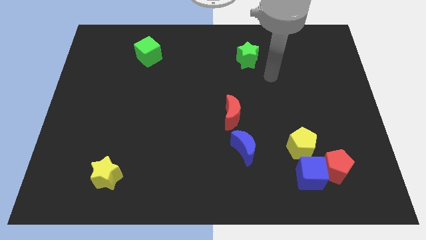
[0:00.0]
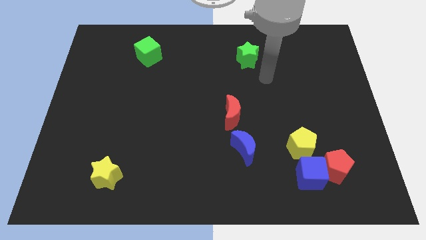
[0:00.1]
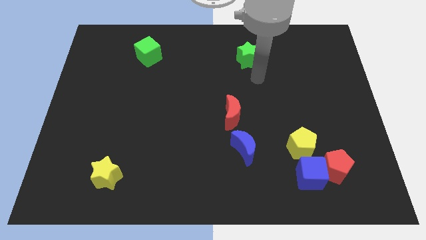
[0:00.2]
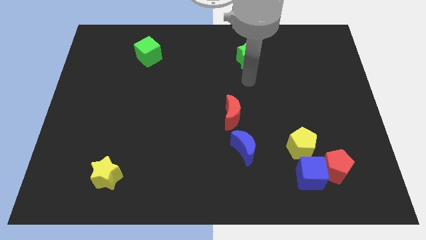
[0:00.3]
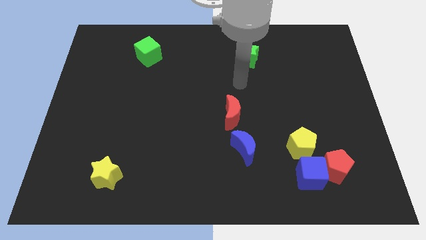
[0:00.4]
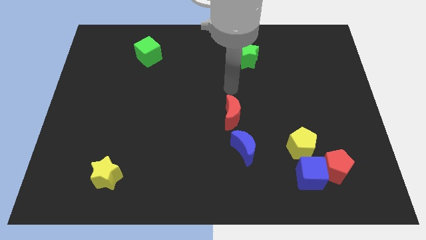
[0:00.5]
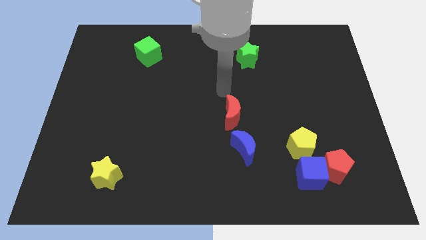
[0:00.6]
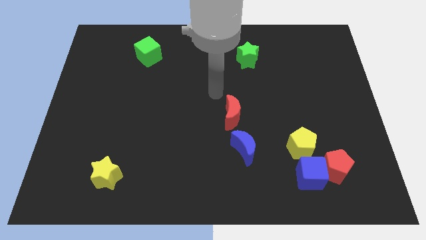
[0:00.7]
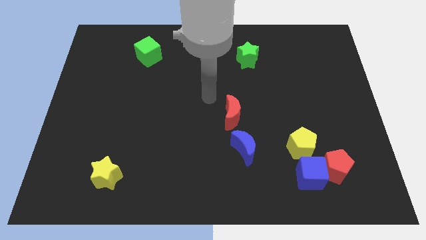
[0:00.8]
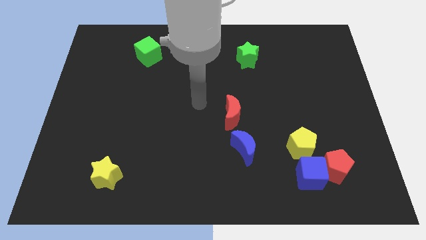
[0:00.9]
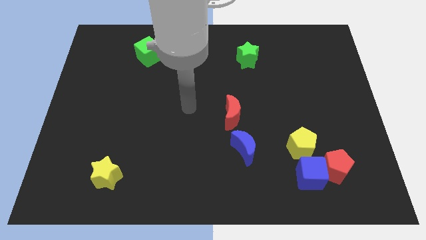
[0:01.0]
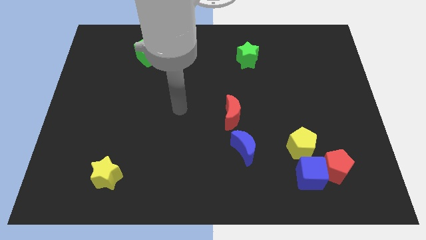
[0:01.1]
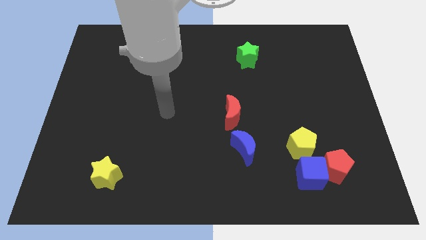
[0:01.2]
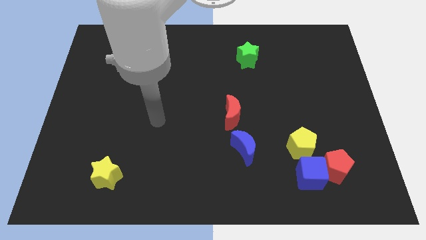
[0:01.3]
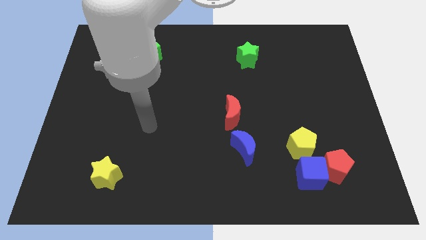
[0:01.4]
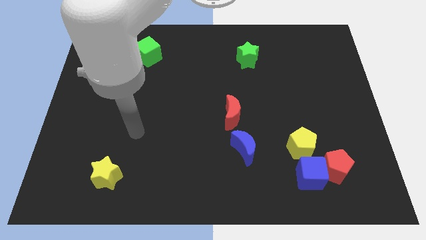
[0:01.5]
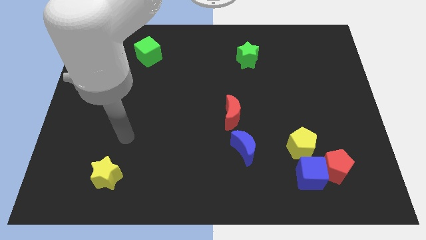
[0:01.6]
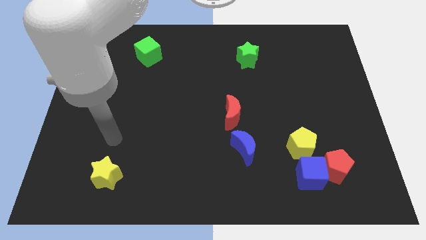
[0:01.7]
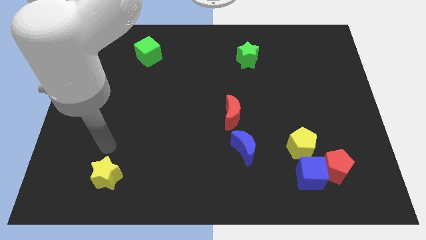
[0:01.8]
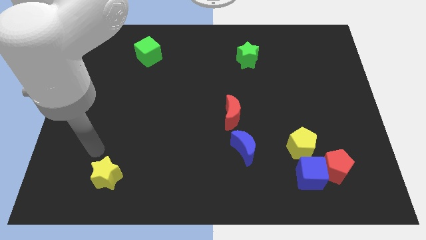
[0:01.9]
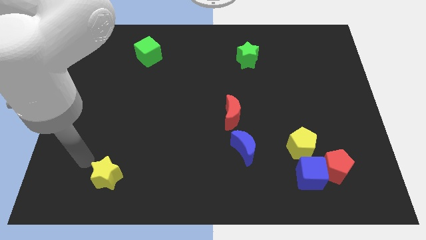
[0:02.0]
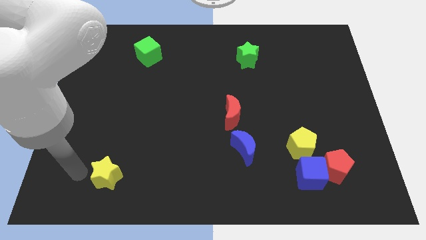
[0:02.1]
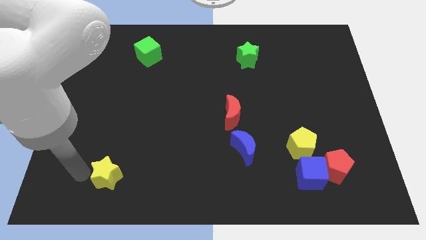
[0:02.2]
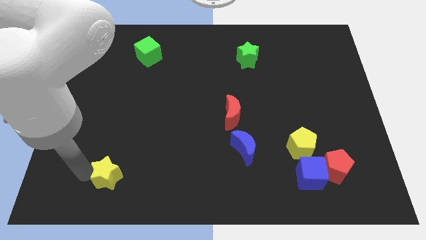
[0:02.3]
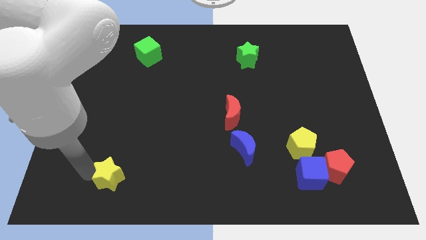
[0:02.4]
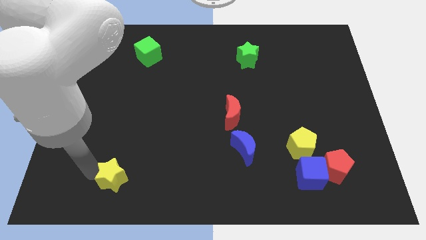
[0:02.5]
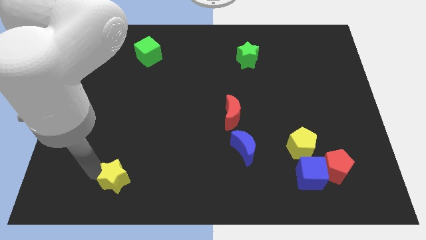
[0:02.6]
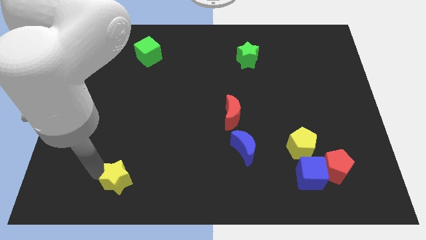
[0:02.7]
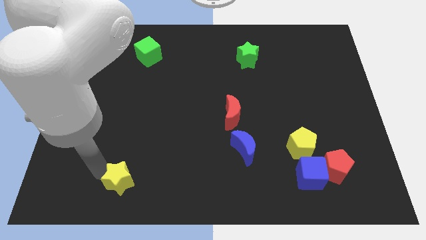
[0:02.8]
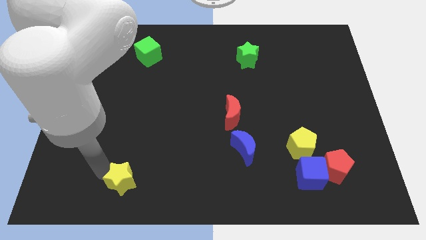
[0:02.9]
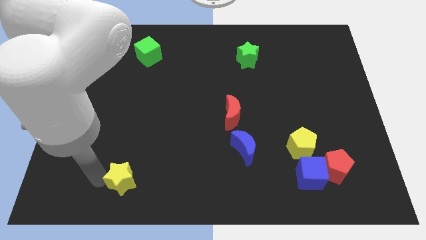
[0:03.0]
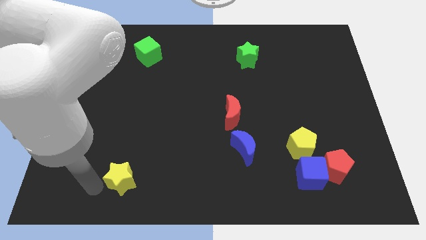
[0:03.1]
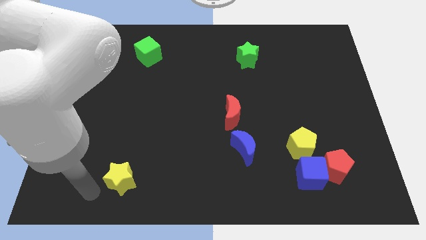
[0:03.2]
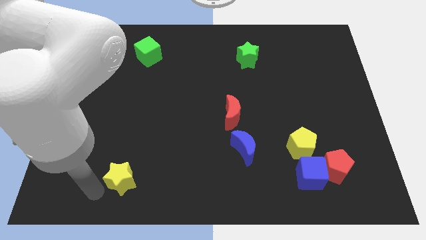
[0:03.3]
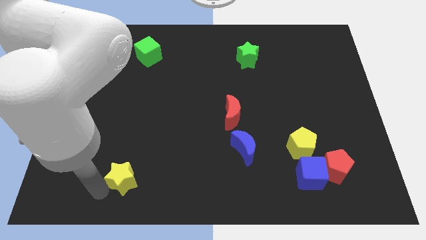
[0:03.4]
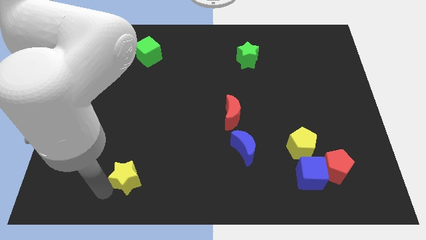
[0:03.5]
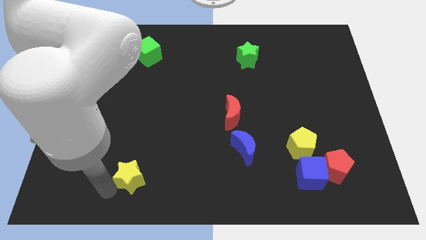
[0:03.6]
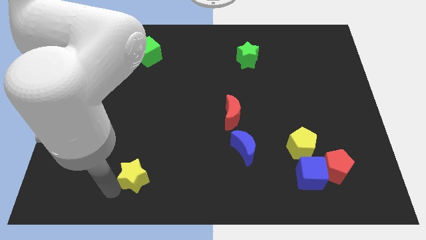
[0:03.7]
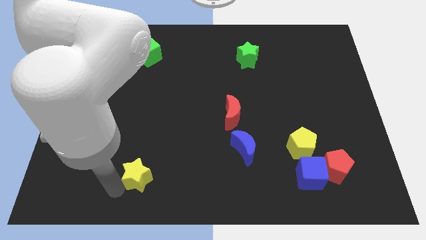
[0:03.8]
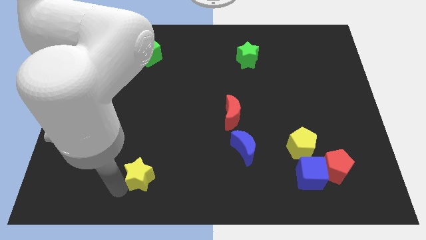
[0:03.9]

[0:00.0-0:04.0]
slightly push the yellow star right

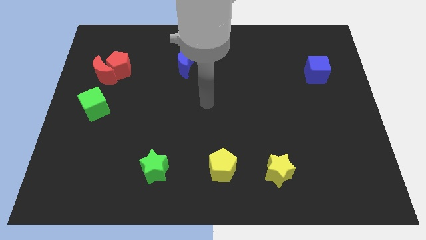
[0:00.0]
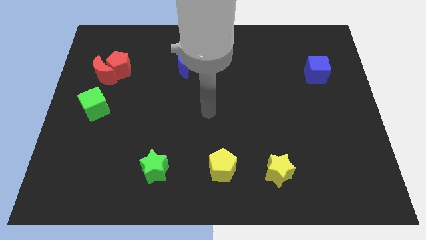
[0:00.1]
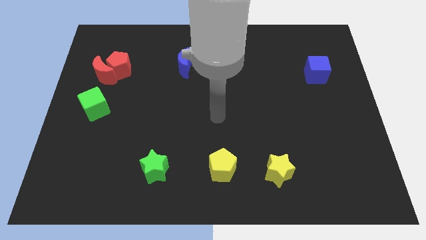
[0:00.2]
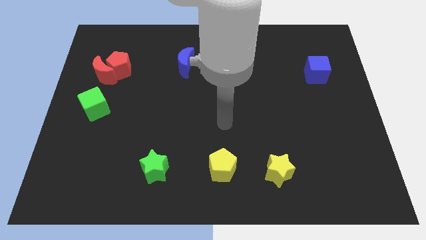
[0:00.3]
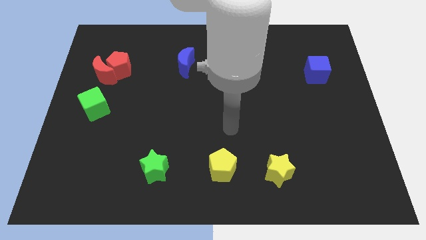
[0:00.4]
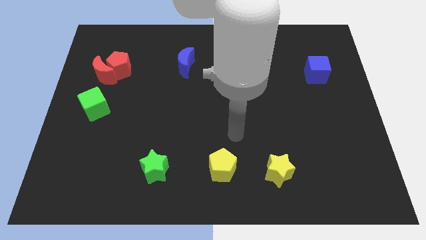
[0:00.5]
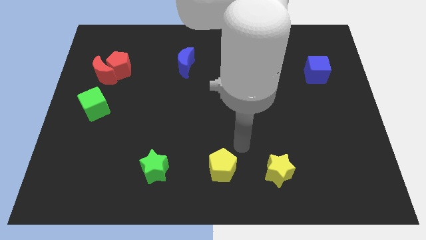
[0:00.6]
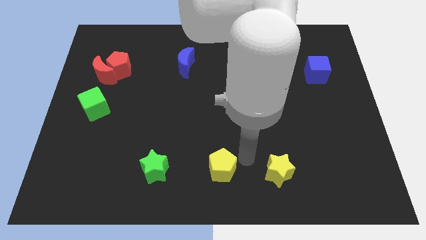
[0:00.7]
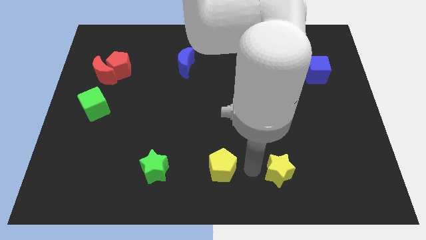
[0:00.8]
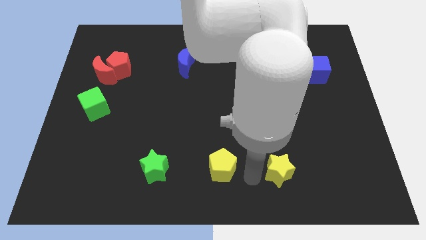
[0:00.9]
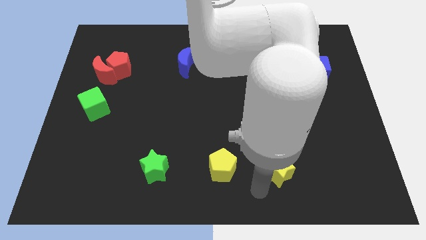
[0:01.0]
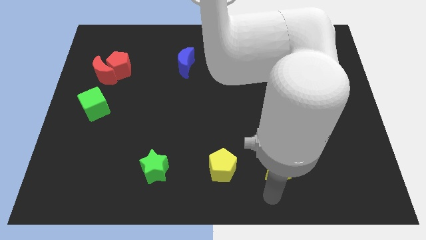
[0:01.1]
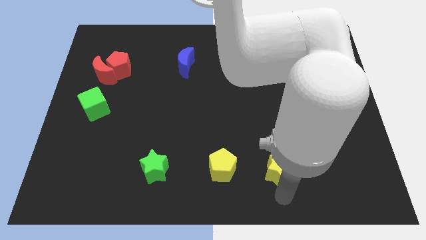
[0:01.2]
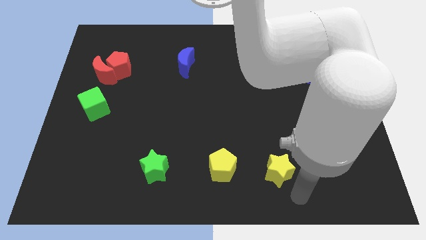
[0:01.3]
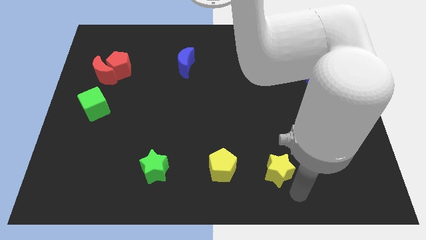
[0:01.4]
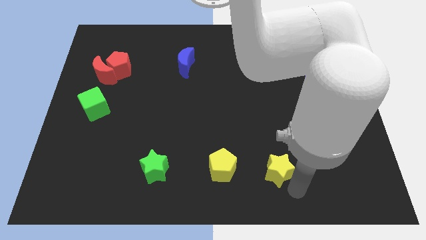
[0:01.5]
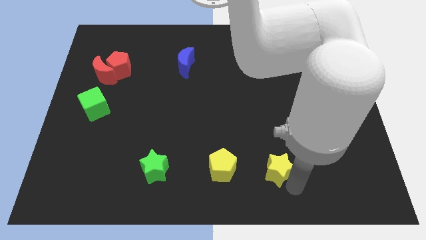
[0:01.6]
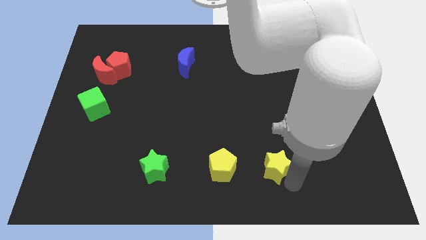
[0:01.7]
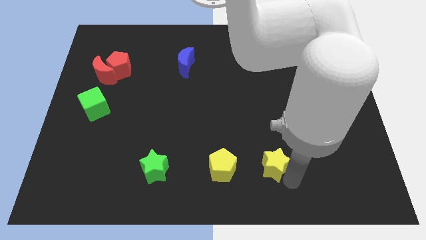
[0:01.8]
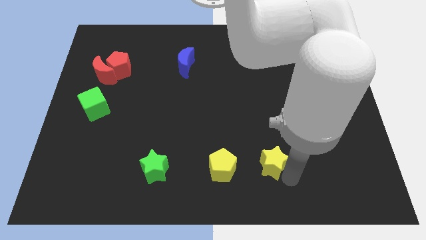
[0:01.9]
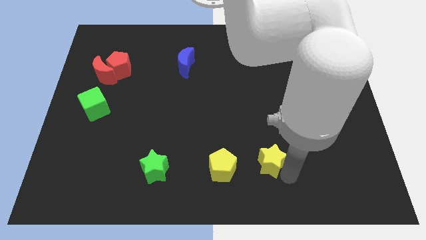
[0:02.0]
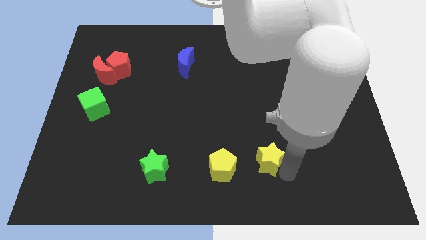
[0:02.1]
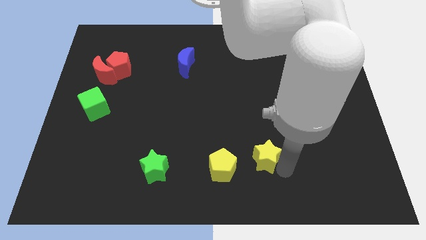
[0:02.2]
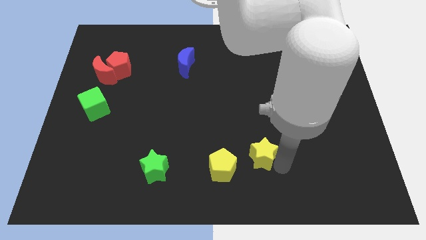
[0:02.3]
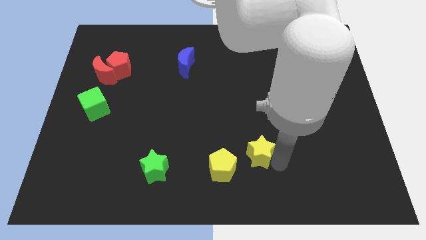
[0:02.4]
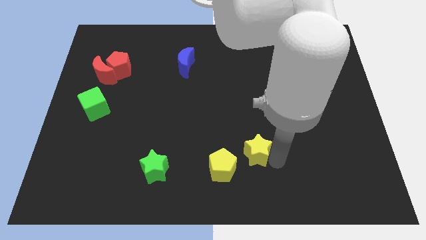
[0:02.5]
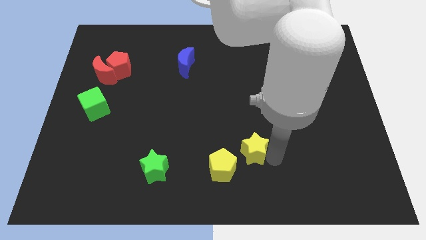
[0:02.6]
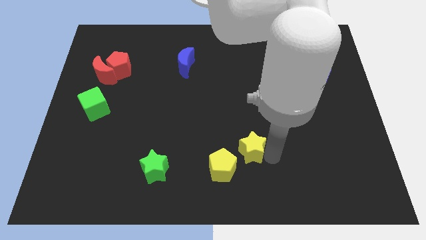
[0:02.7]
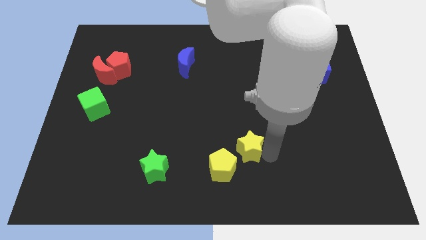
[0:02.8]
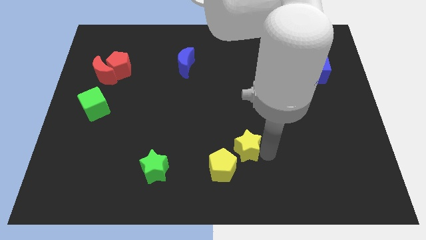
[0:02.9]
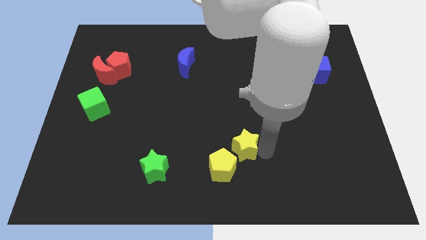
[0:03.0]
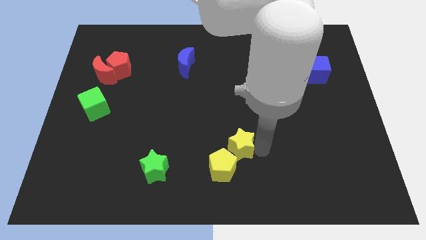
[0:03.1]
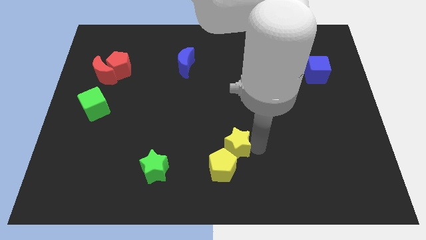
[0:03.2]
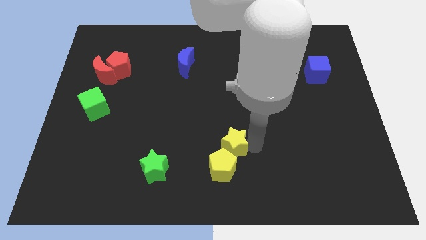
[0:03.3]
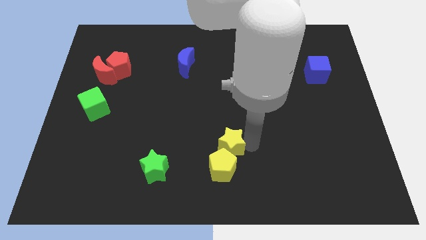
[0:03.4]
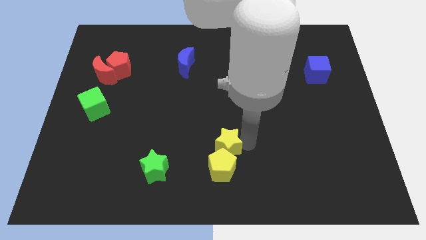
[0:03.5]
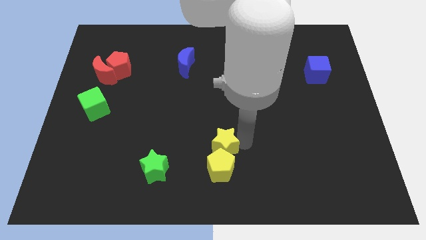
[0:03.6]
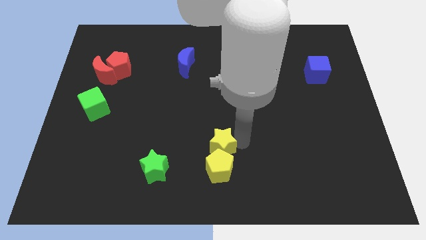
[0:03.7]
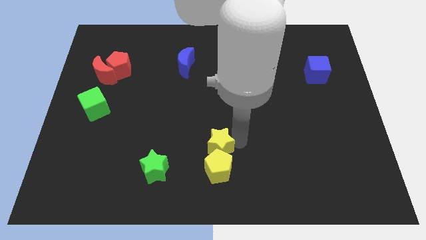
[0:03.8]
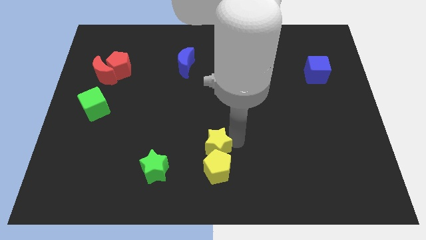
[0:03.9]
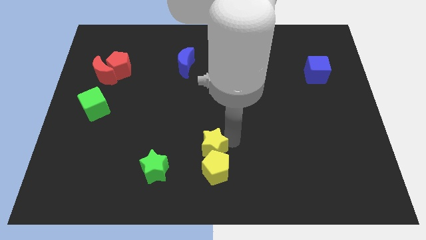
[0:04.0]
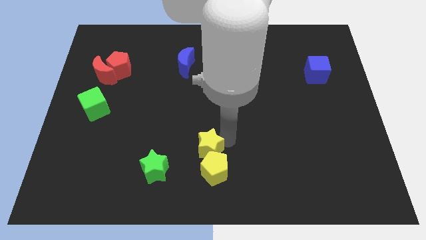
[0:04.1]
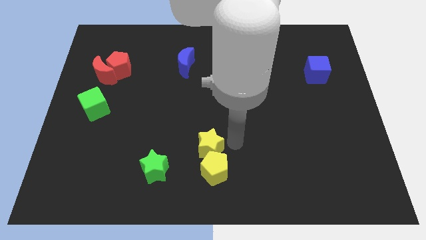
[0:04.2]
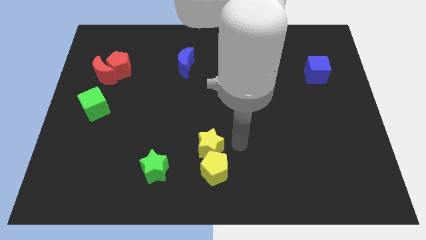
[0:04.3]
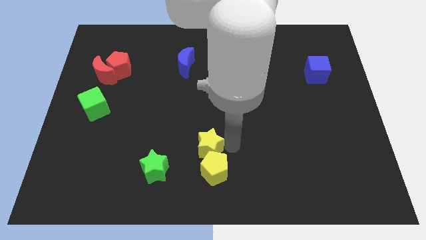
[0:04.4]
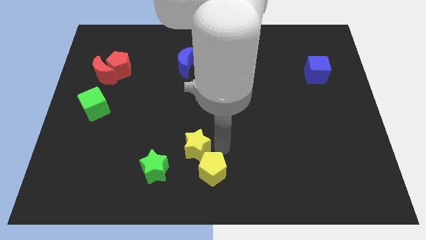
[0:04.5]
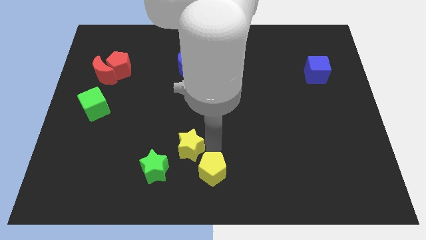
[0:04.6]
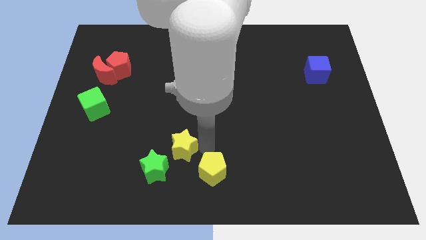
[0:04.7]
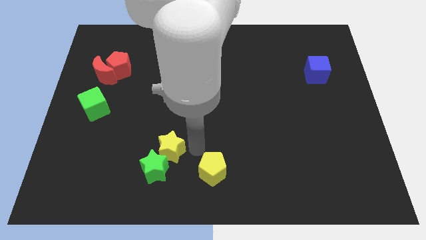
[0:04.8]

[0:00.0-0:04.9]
move the yellow star left
